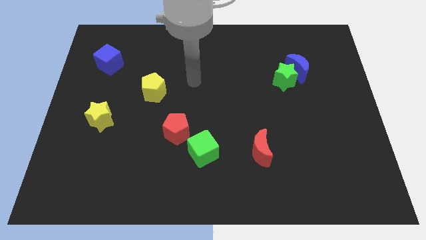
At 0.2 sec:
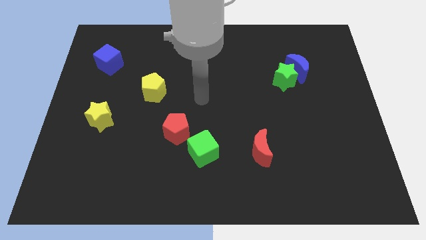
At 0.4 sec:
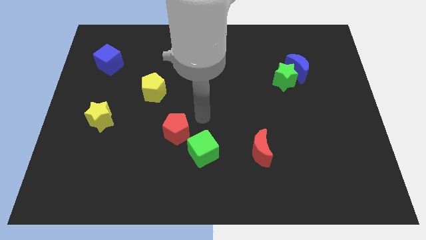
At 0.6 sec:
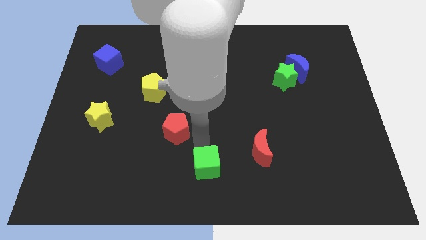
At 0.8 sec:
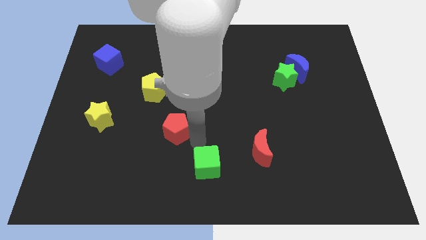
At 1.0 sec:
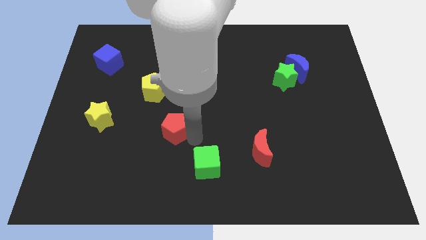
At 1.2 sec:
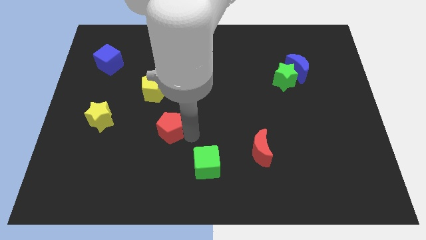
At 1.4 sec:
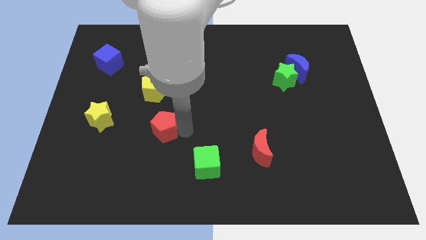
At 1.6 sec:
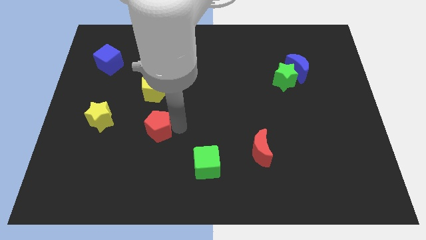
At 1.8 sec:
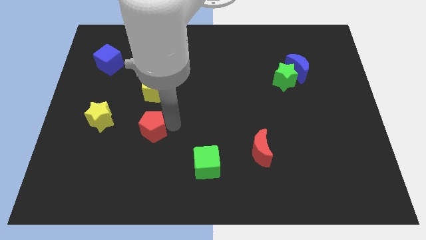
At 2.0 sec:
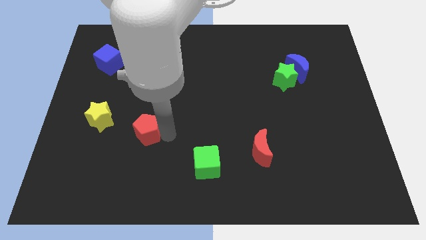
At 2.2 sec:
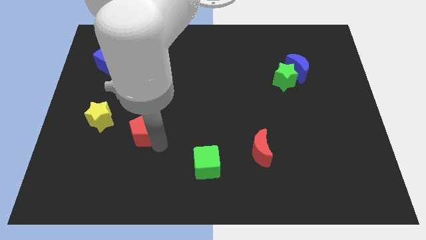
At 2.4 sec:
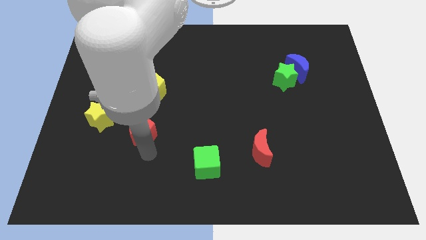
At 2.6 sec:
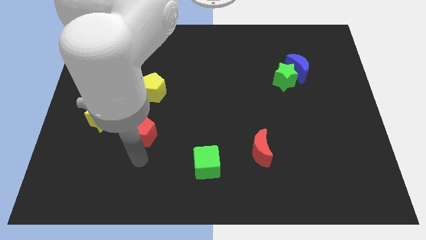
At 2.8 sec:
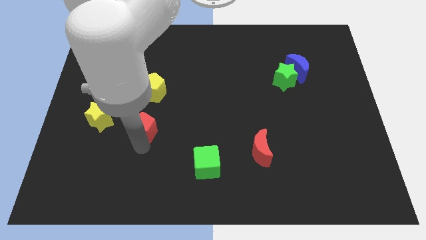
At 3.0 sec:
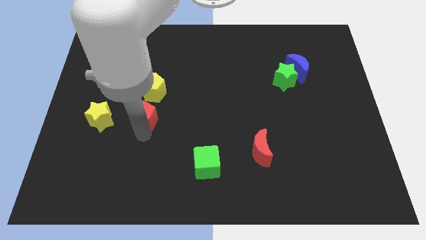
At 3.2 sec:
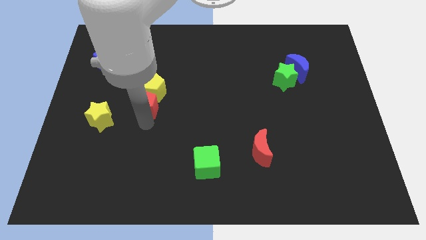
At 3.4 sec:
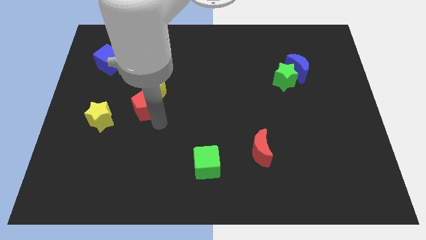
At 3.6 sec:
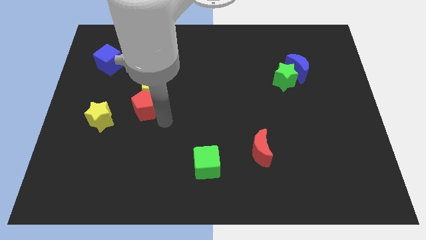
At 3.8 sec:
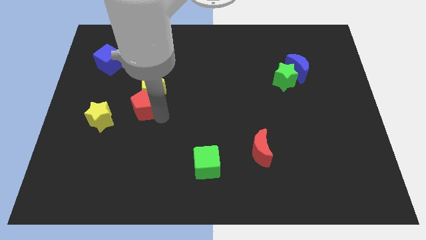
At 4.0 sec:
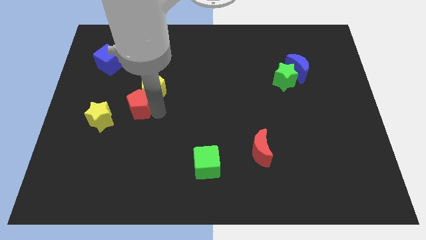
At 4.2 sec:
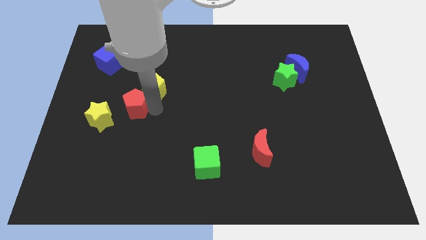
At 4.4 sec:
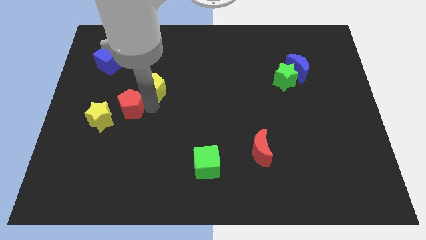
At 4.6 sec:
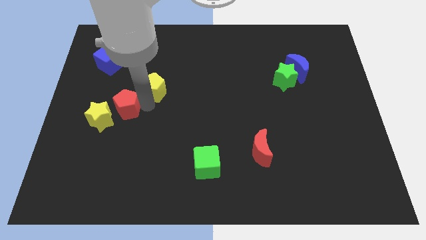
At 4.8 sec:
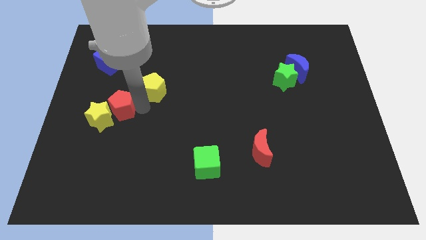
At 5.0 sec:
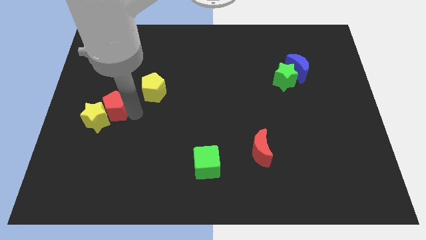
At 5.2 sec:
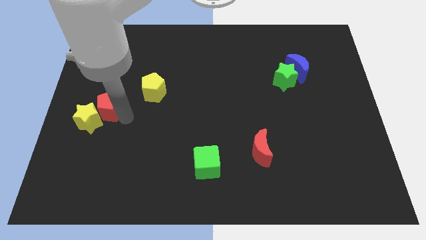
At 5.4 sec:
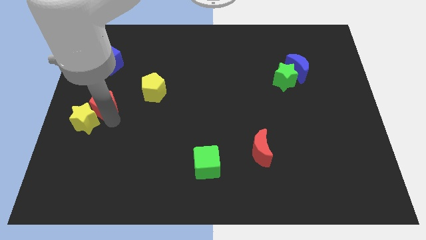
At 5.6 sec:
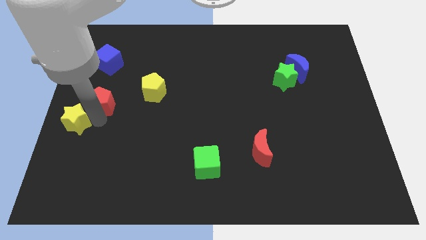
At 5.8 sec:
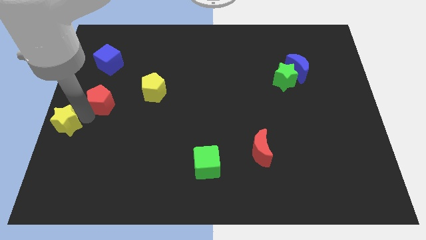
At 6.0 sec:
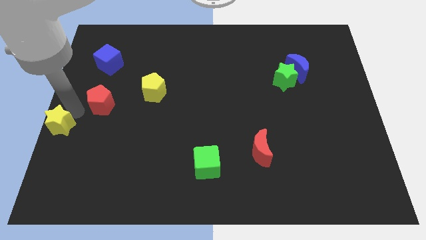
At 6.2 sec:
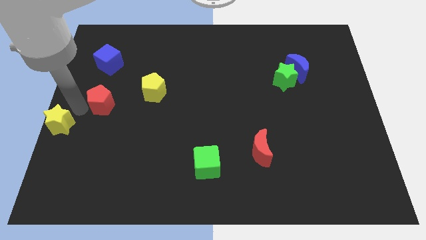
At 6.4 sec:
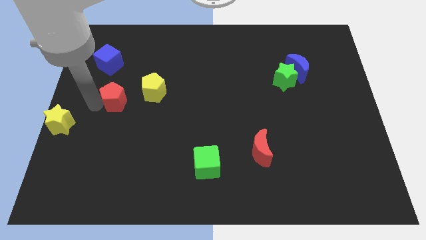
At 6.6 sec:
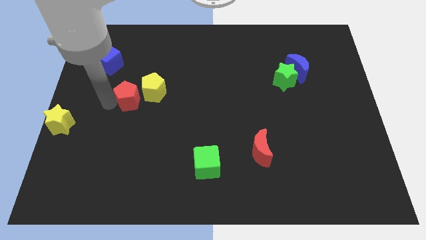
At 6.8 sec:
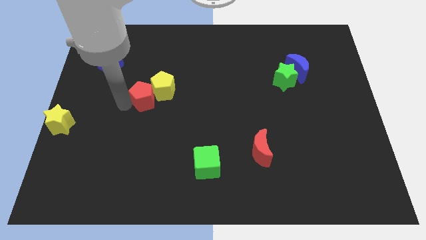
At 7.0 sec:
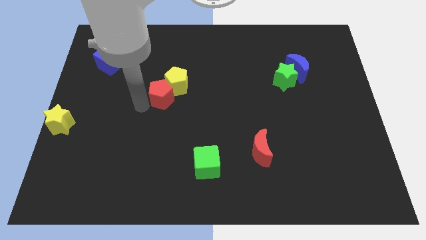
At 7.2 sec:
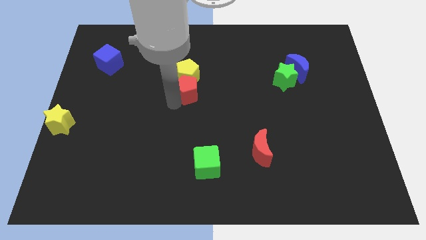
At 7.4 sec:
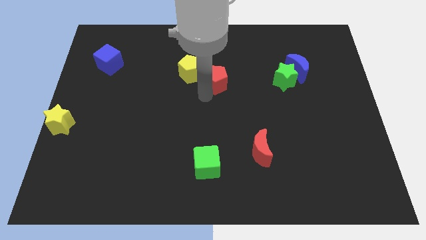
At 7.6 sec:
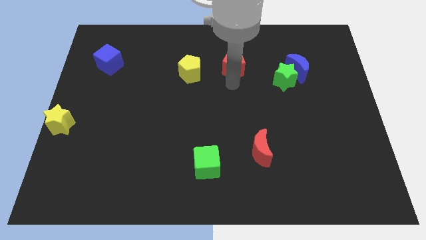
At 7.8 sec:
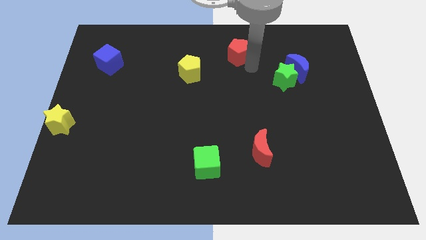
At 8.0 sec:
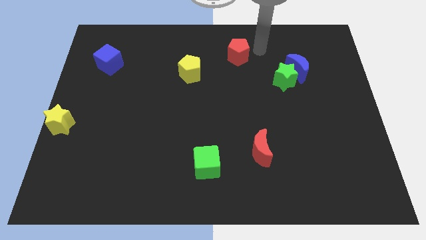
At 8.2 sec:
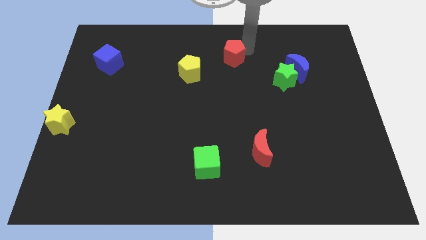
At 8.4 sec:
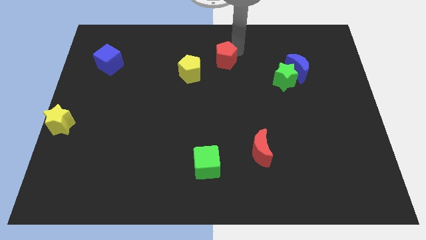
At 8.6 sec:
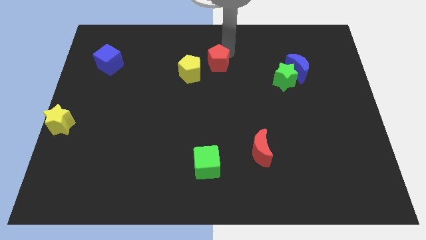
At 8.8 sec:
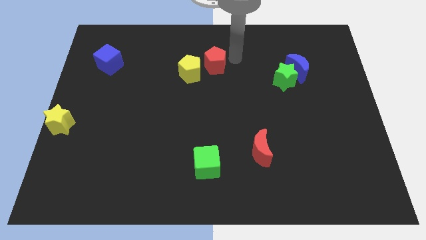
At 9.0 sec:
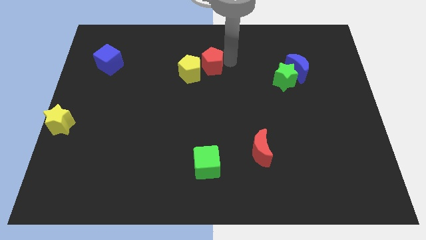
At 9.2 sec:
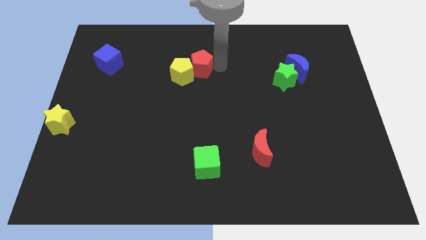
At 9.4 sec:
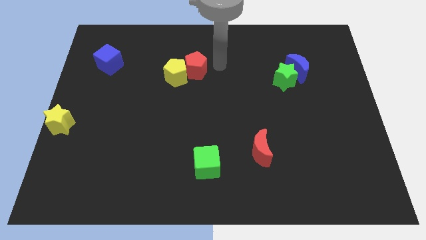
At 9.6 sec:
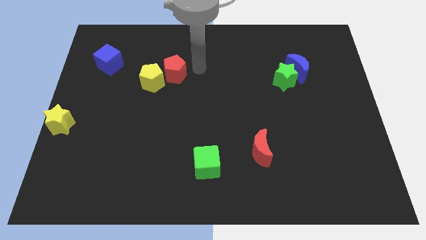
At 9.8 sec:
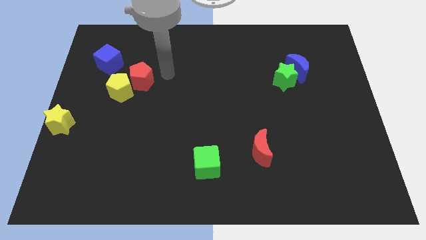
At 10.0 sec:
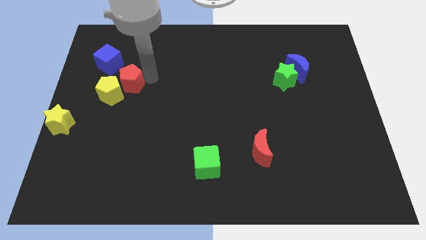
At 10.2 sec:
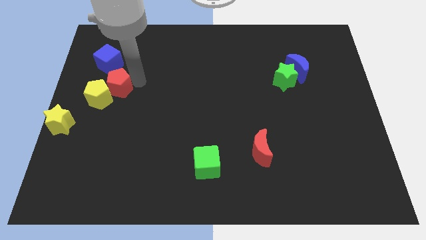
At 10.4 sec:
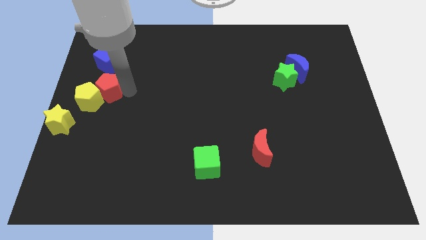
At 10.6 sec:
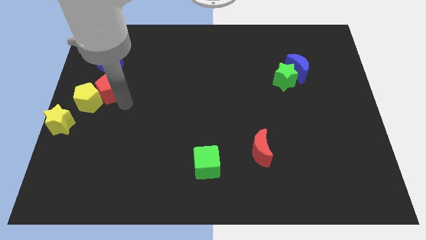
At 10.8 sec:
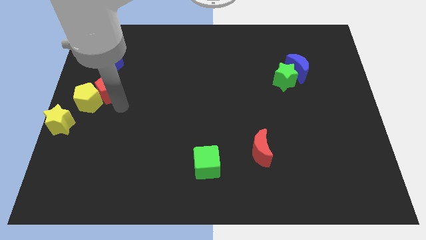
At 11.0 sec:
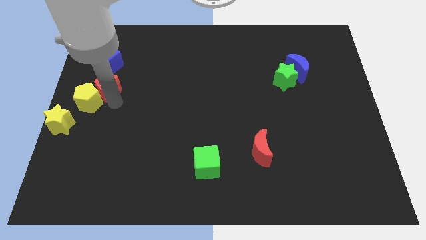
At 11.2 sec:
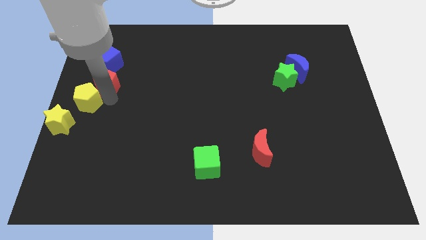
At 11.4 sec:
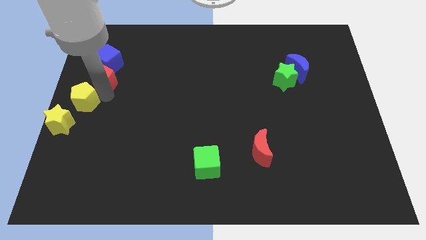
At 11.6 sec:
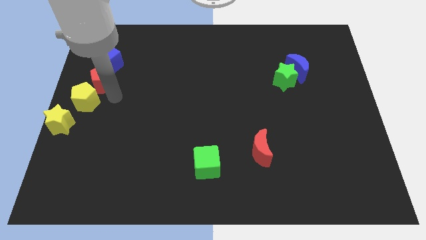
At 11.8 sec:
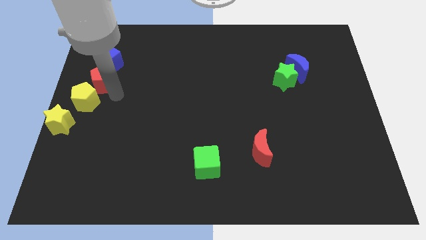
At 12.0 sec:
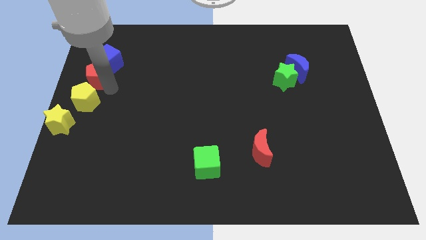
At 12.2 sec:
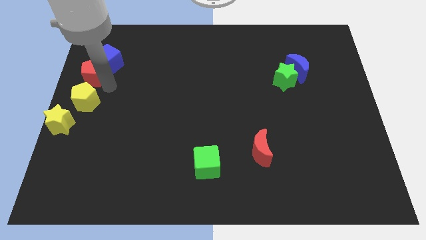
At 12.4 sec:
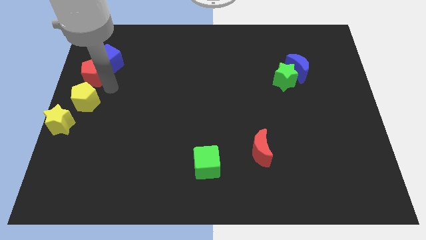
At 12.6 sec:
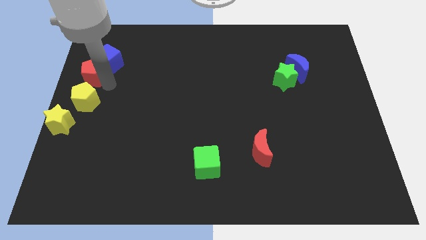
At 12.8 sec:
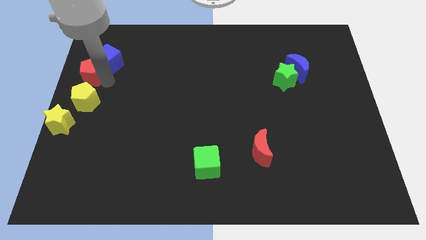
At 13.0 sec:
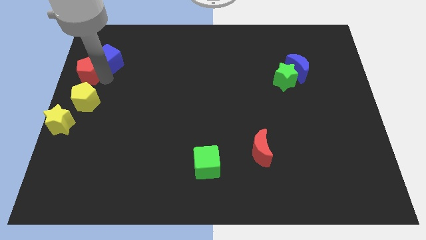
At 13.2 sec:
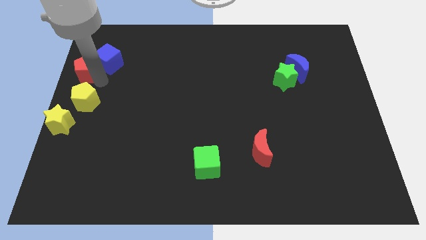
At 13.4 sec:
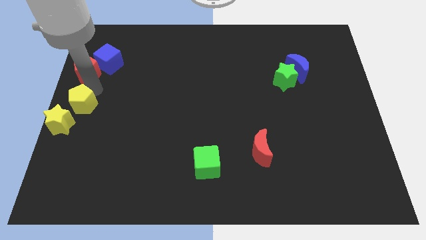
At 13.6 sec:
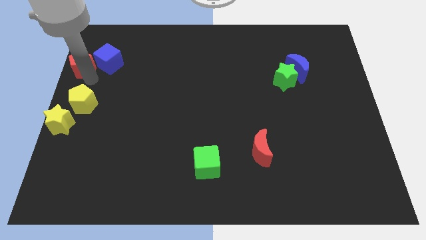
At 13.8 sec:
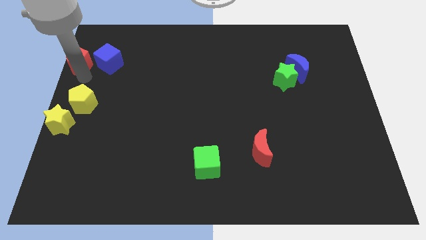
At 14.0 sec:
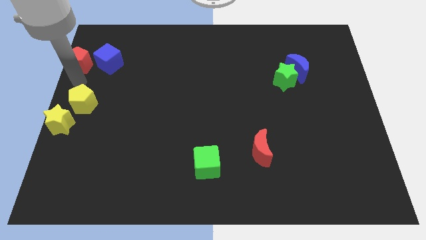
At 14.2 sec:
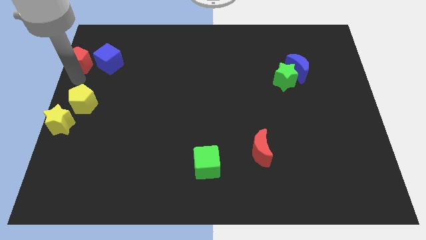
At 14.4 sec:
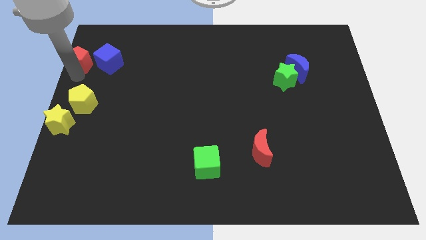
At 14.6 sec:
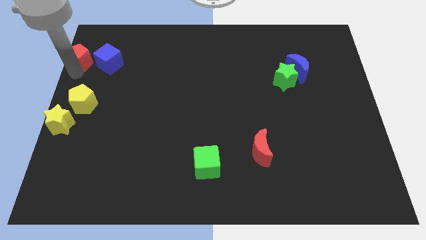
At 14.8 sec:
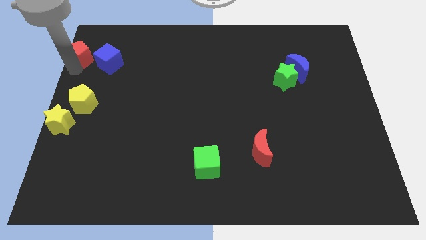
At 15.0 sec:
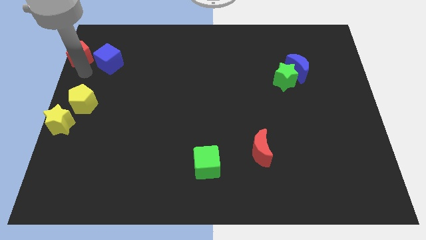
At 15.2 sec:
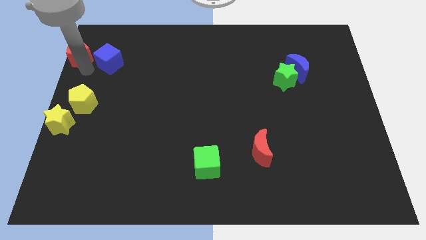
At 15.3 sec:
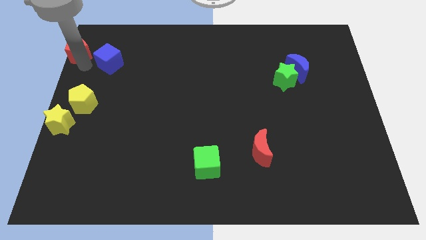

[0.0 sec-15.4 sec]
put the red pentagon to the upper left corner
